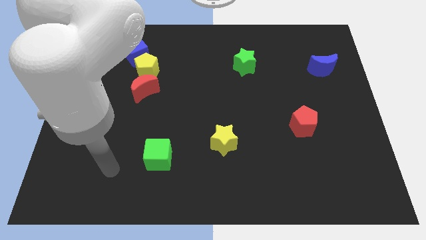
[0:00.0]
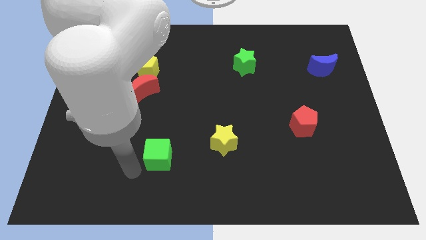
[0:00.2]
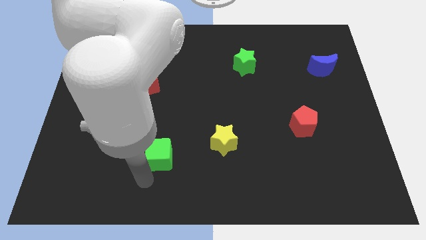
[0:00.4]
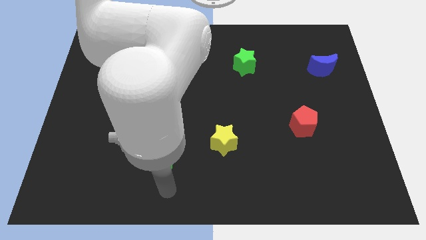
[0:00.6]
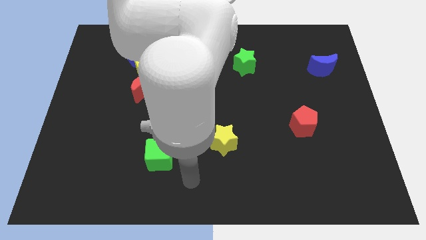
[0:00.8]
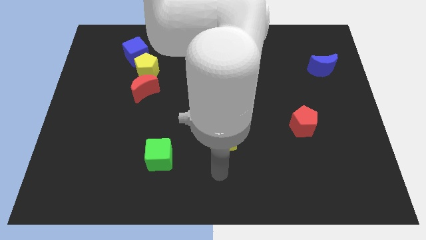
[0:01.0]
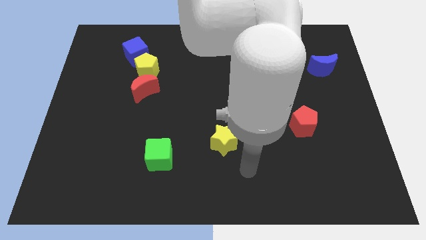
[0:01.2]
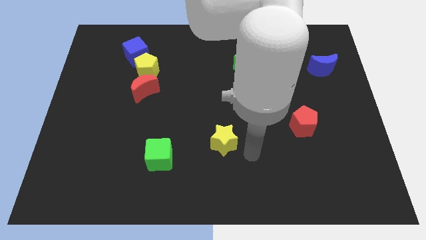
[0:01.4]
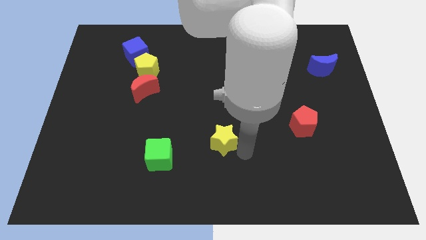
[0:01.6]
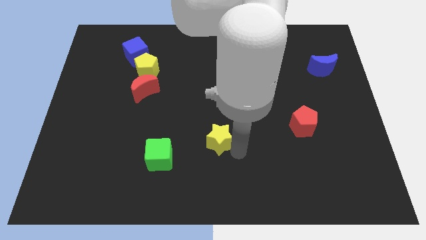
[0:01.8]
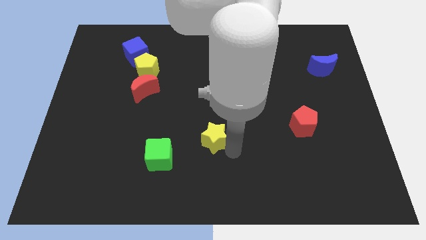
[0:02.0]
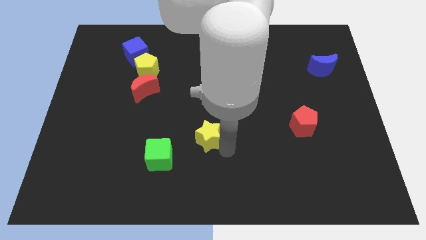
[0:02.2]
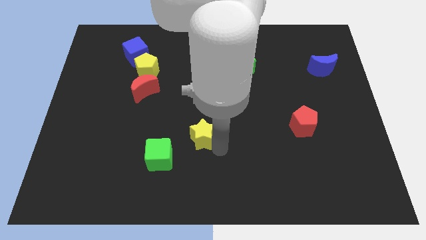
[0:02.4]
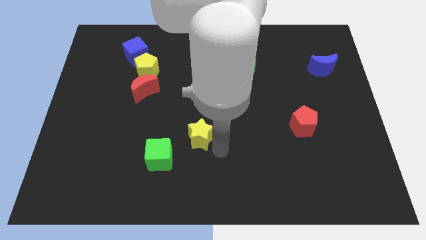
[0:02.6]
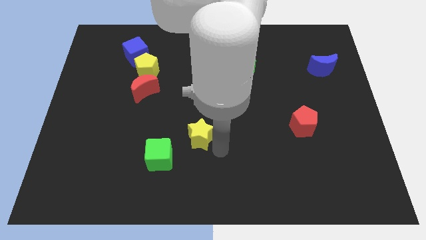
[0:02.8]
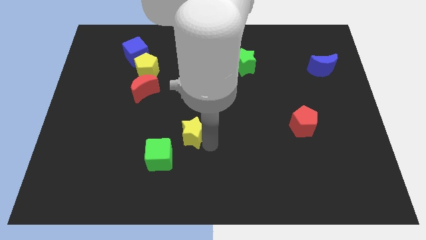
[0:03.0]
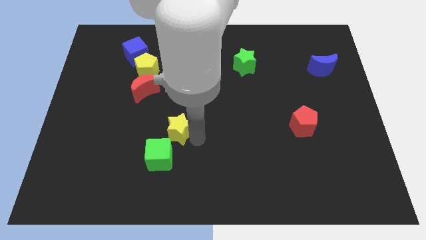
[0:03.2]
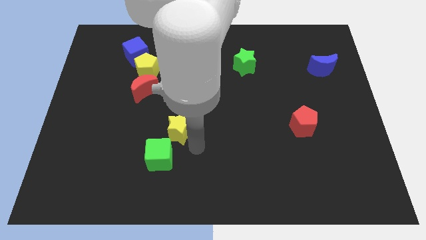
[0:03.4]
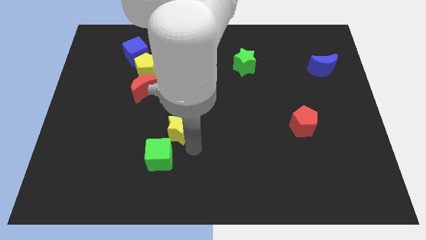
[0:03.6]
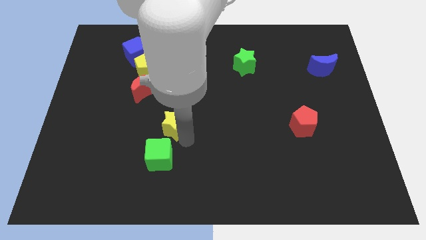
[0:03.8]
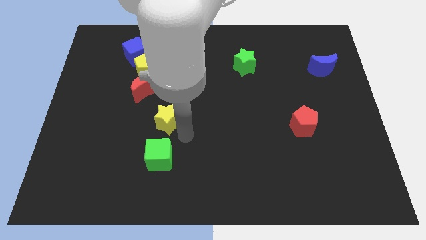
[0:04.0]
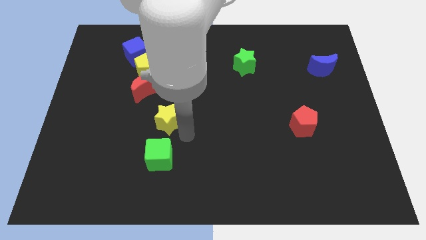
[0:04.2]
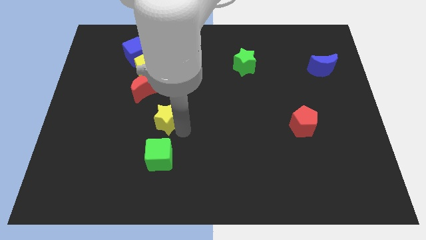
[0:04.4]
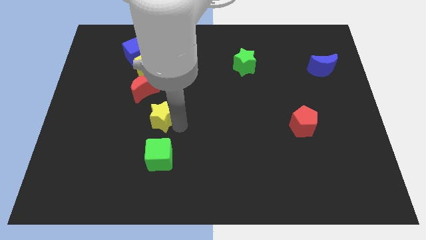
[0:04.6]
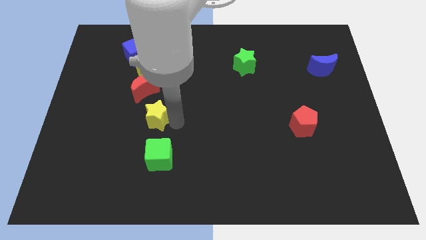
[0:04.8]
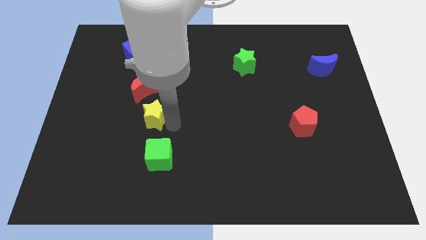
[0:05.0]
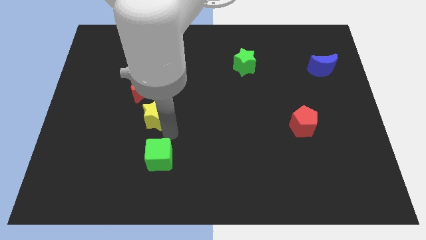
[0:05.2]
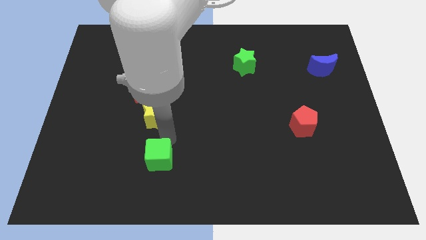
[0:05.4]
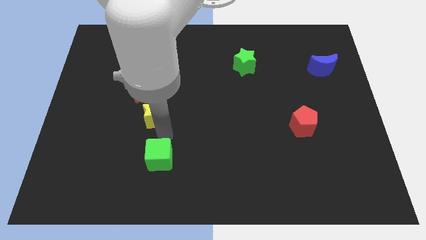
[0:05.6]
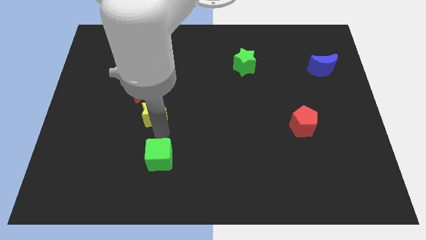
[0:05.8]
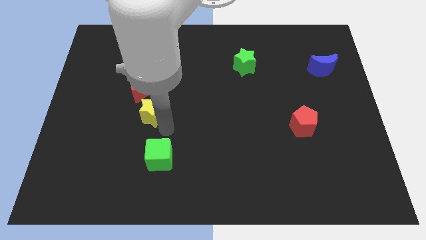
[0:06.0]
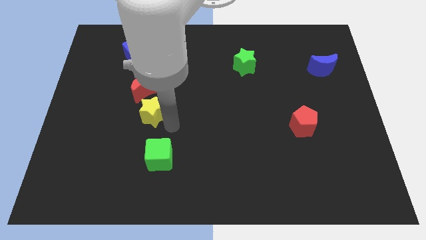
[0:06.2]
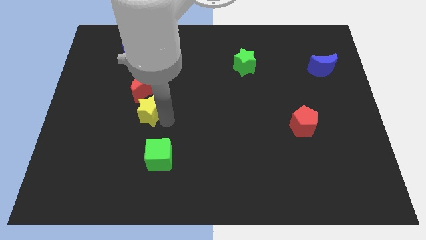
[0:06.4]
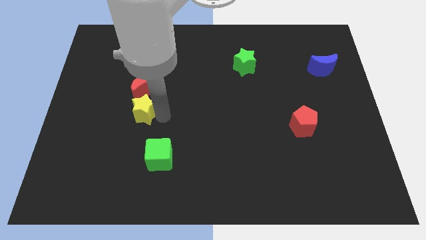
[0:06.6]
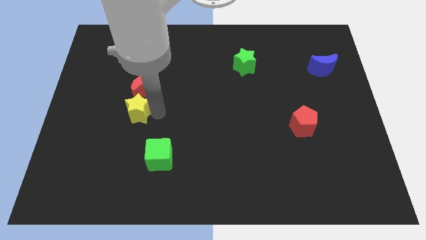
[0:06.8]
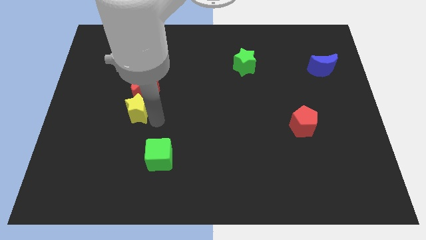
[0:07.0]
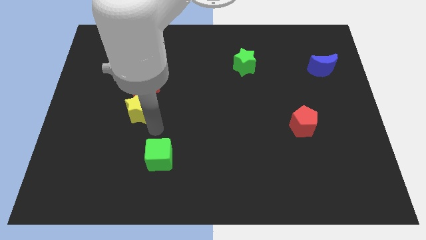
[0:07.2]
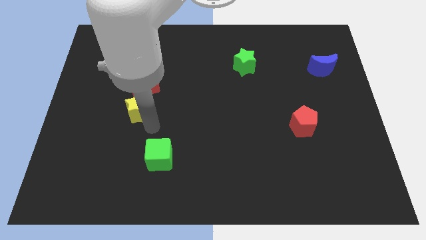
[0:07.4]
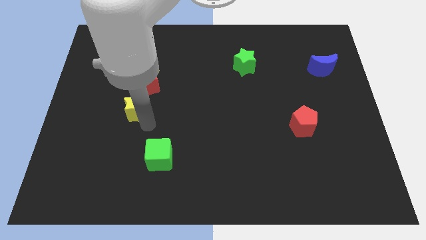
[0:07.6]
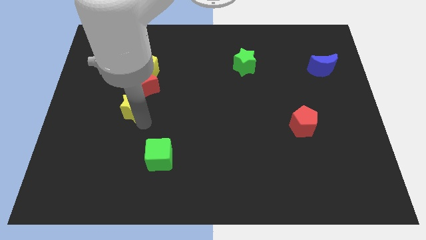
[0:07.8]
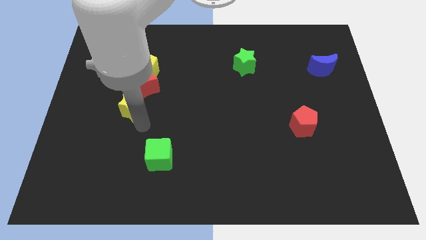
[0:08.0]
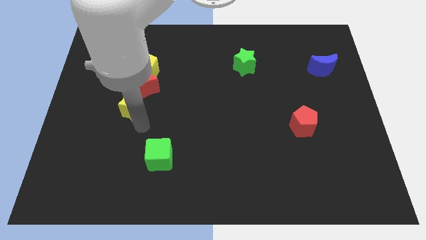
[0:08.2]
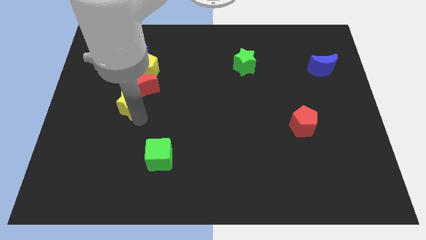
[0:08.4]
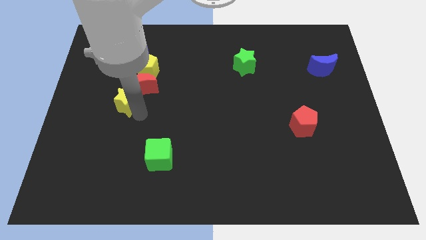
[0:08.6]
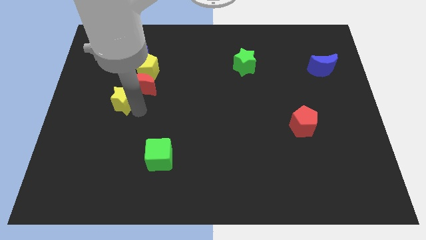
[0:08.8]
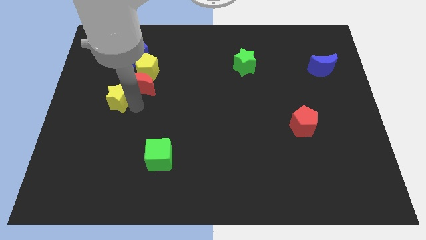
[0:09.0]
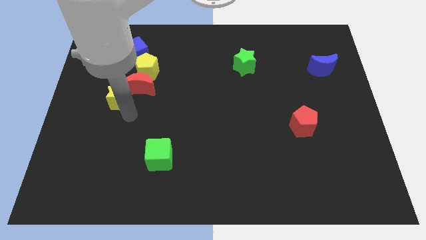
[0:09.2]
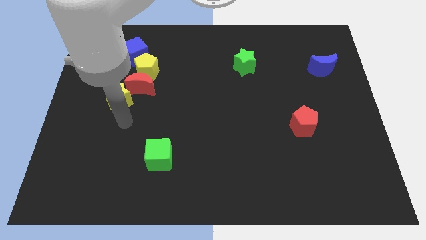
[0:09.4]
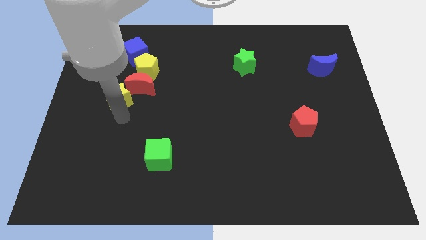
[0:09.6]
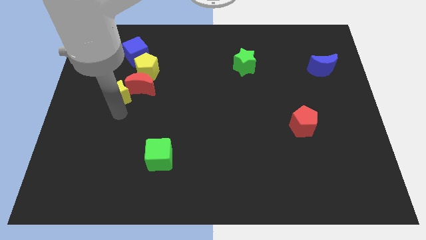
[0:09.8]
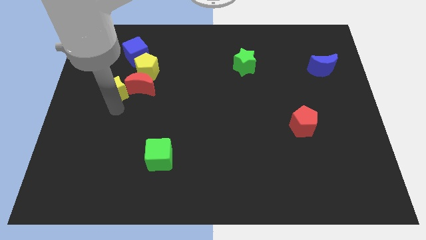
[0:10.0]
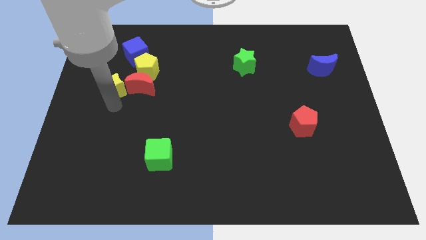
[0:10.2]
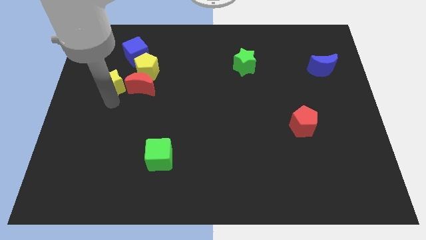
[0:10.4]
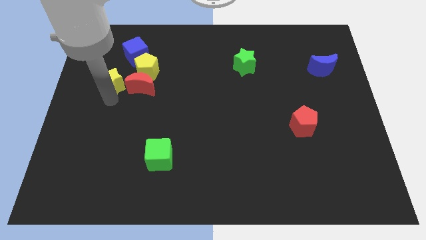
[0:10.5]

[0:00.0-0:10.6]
move the yellow star left of the yellow pentagon

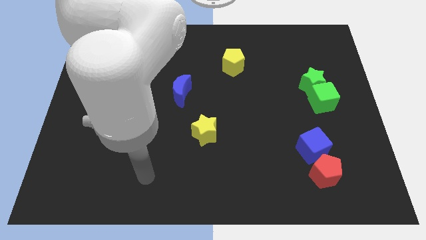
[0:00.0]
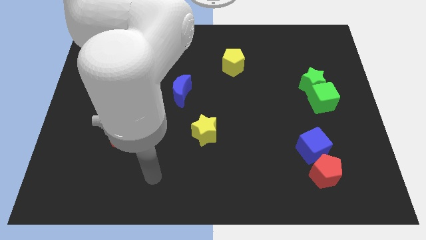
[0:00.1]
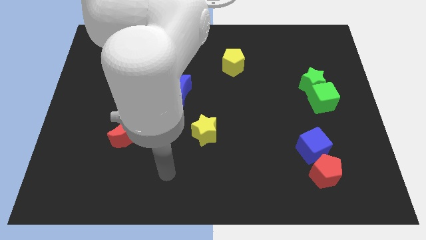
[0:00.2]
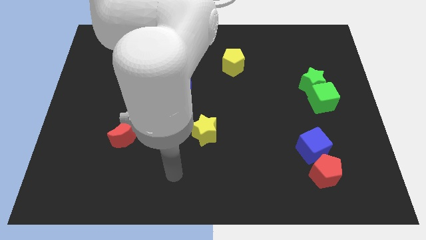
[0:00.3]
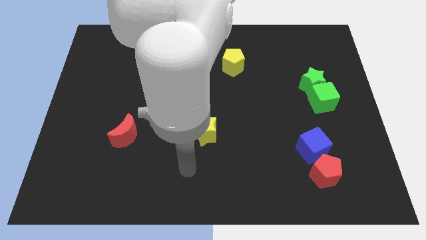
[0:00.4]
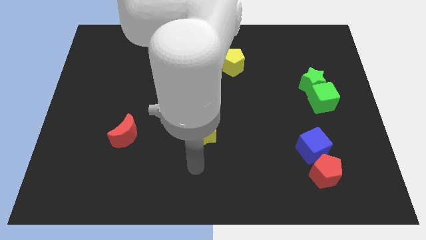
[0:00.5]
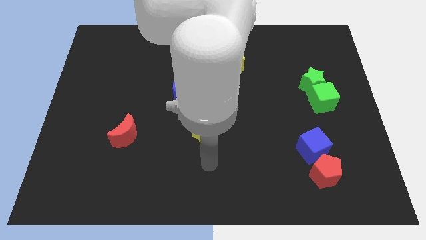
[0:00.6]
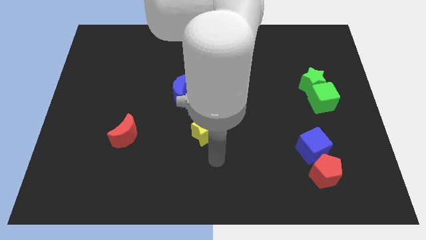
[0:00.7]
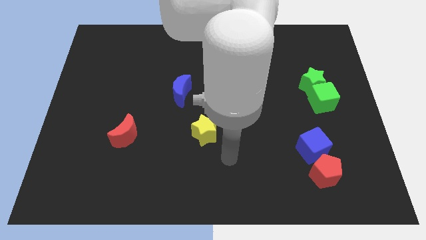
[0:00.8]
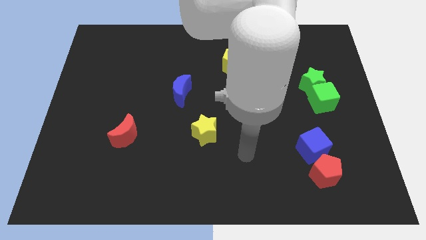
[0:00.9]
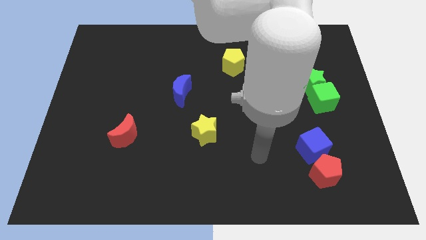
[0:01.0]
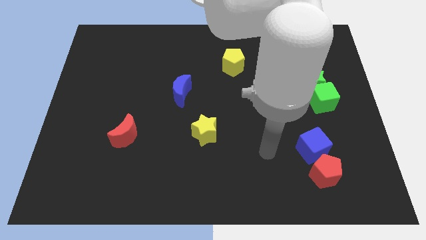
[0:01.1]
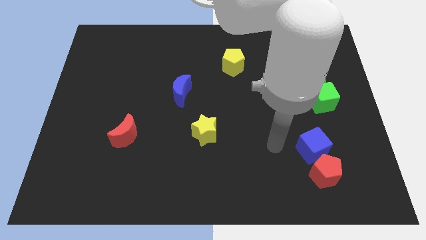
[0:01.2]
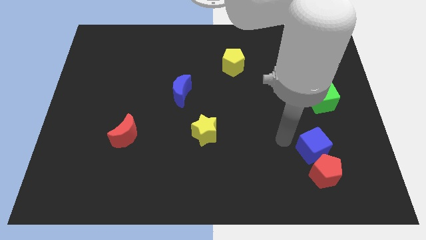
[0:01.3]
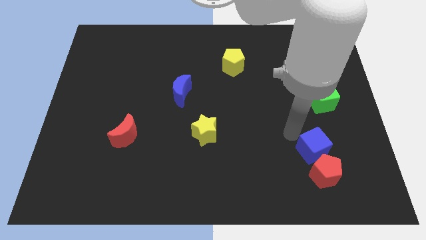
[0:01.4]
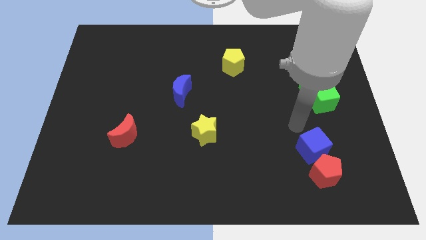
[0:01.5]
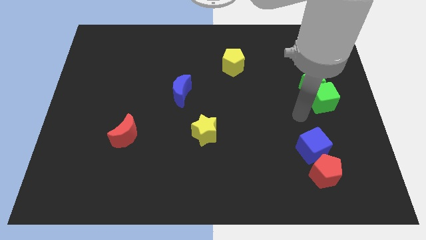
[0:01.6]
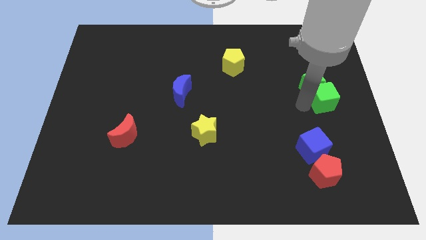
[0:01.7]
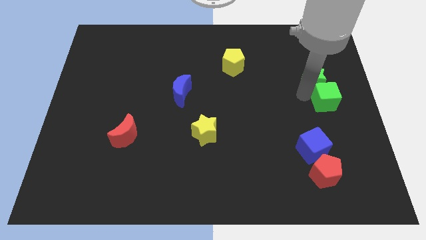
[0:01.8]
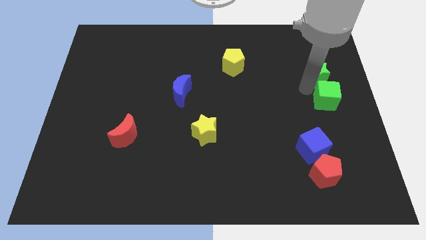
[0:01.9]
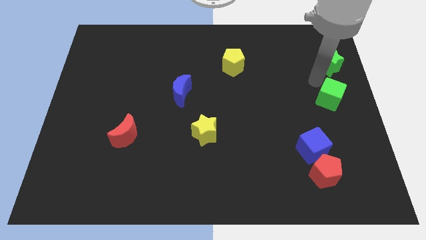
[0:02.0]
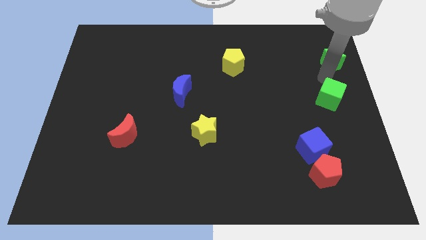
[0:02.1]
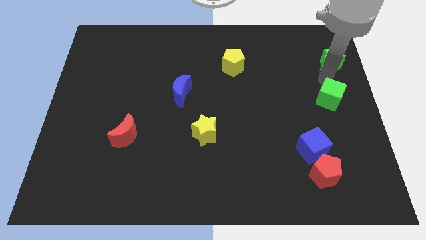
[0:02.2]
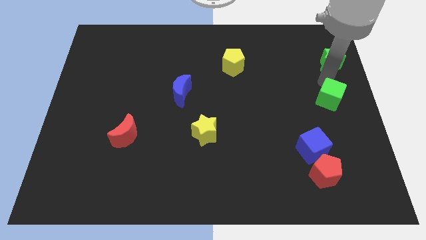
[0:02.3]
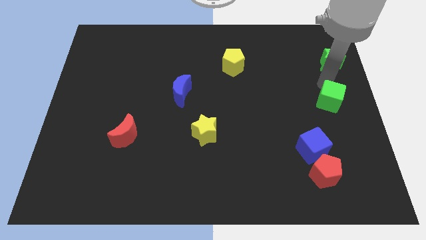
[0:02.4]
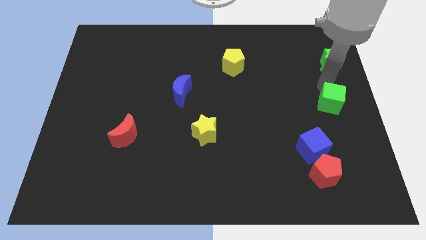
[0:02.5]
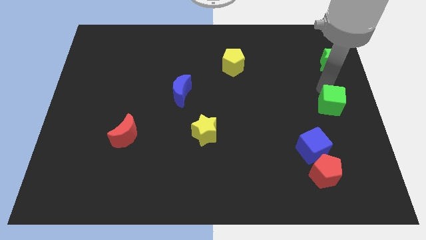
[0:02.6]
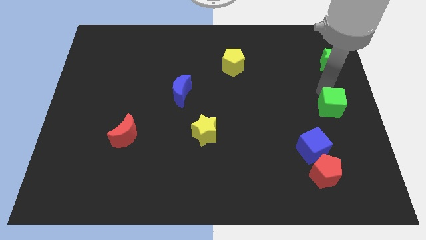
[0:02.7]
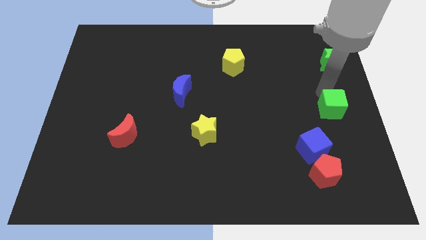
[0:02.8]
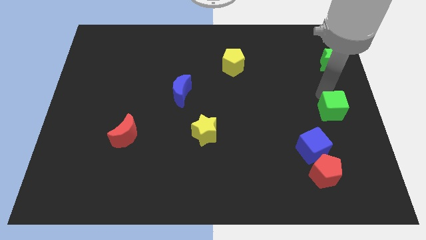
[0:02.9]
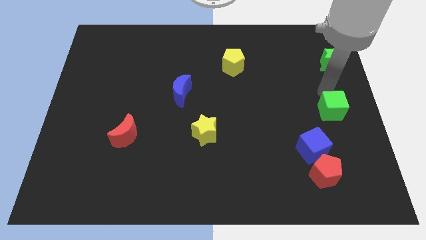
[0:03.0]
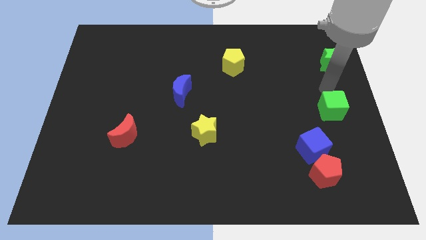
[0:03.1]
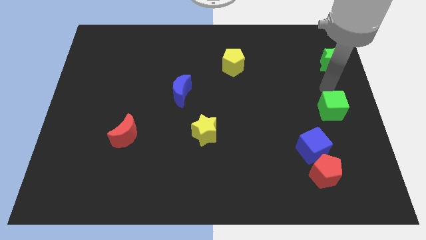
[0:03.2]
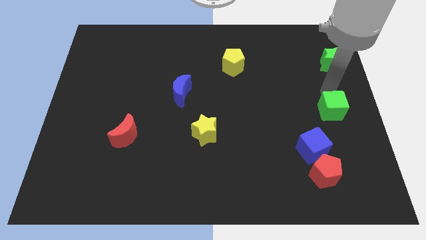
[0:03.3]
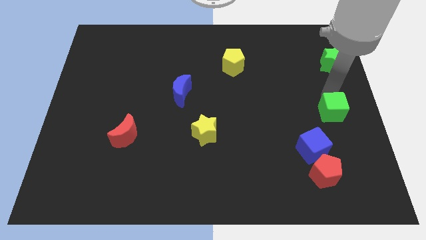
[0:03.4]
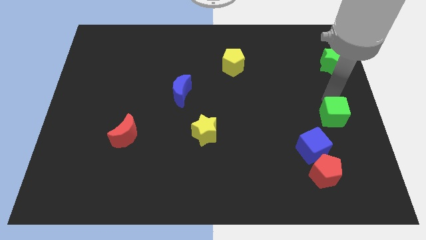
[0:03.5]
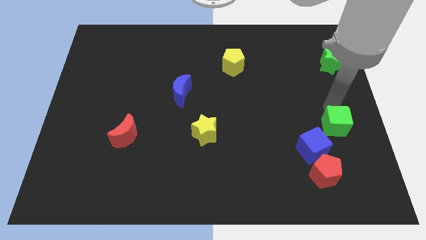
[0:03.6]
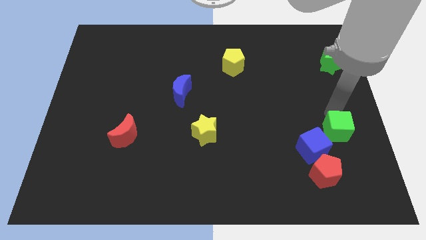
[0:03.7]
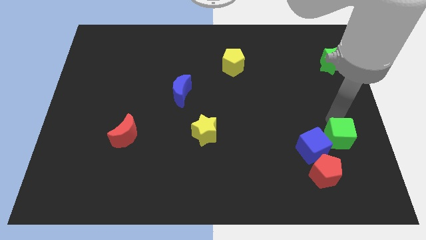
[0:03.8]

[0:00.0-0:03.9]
put the green cube to the top right of the red pentagon
